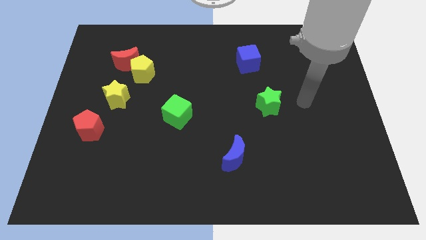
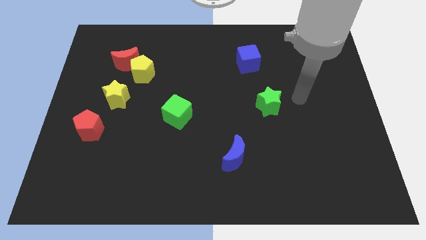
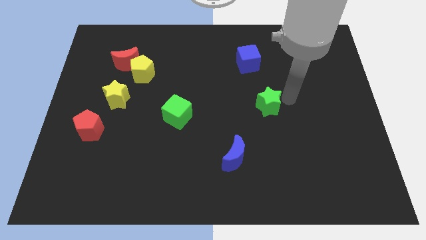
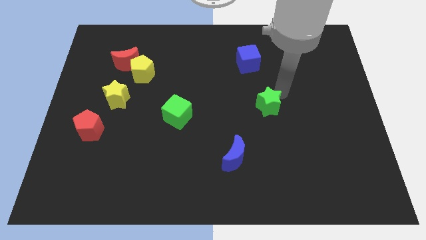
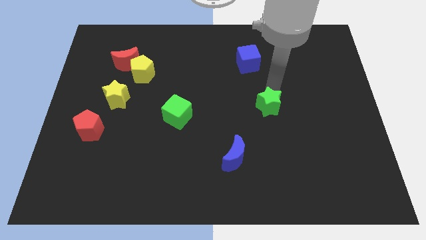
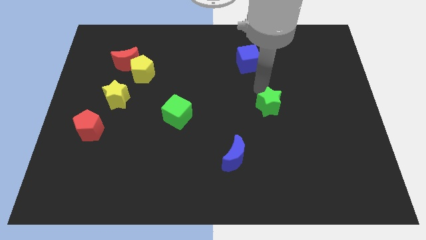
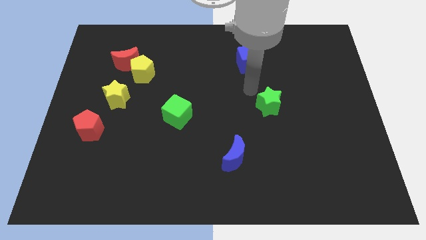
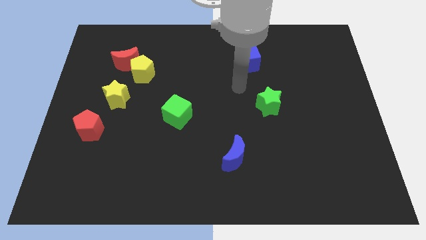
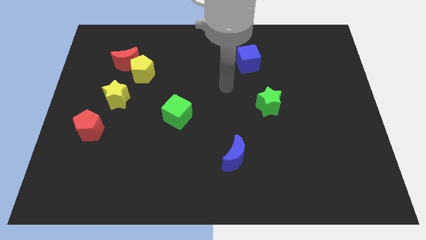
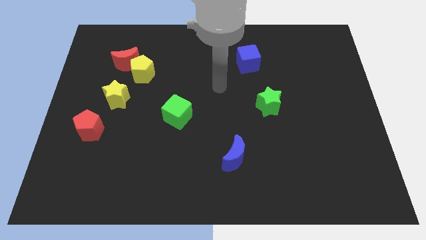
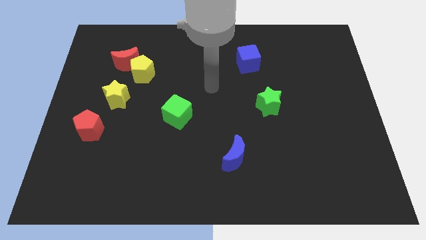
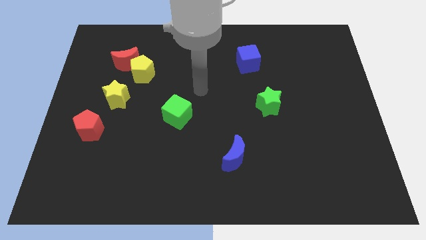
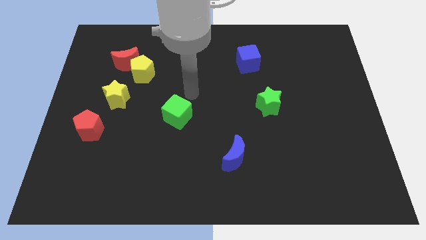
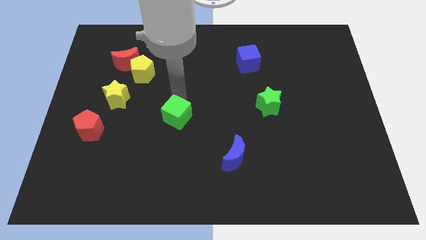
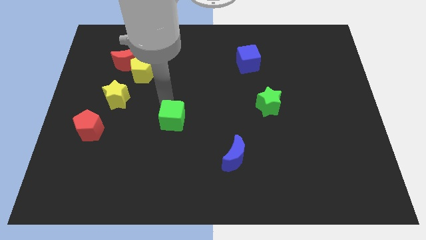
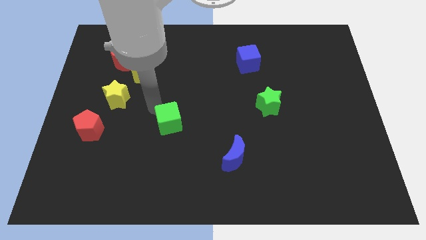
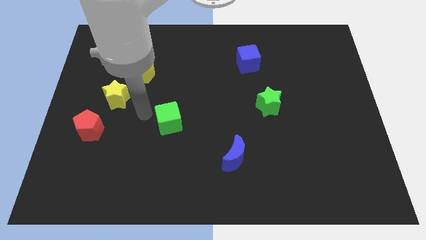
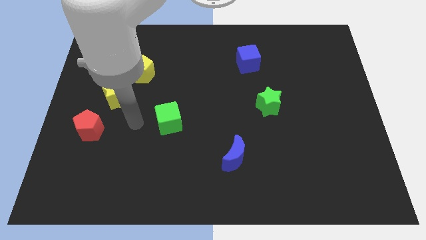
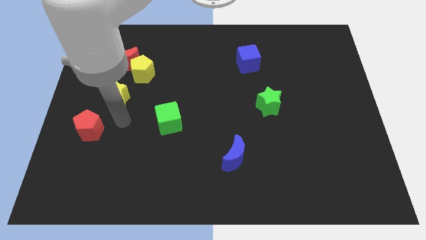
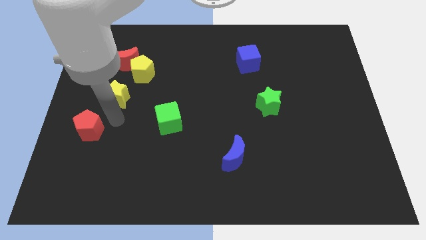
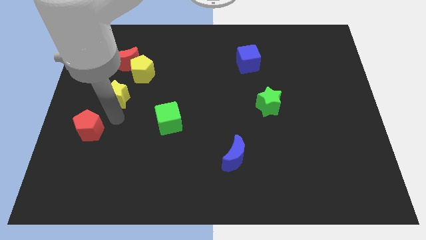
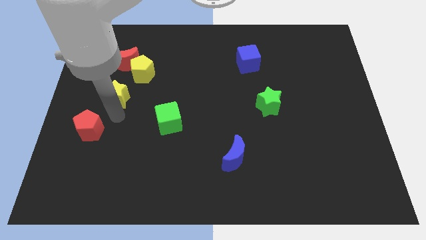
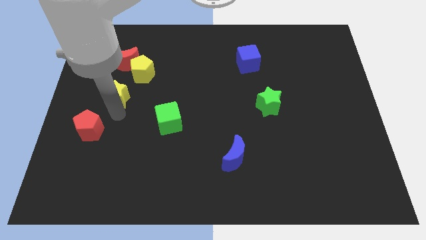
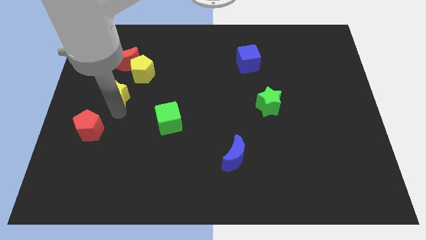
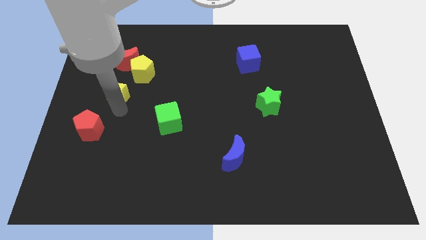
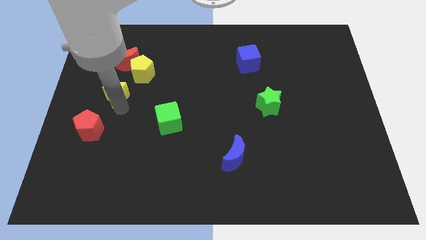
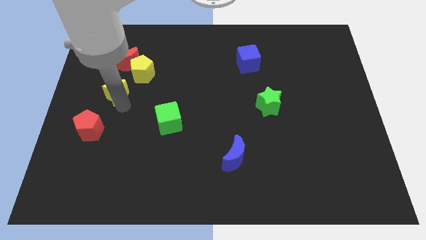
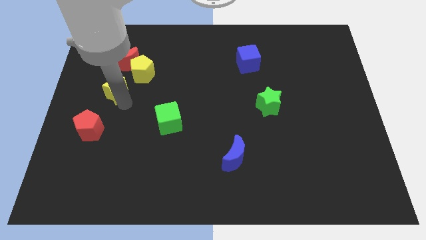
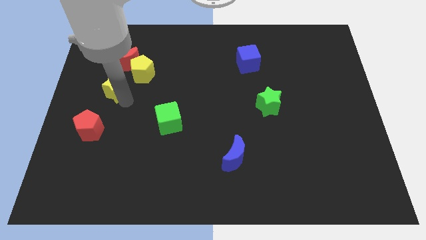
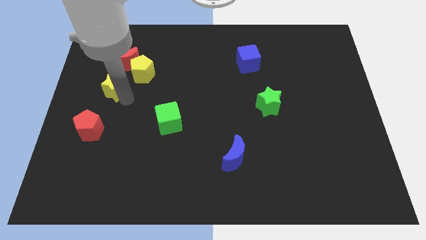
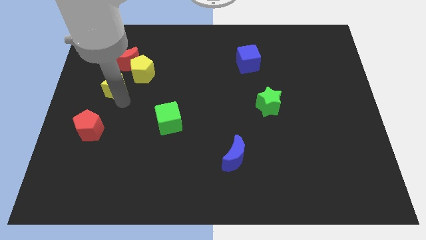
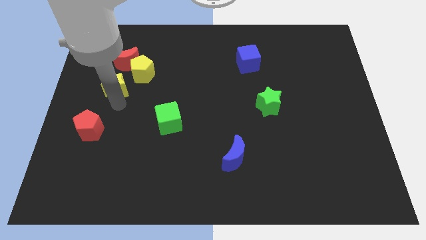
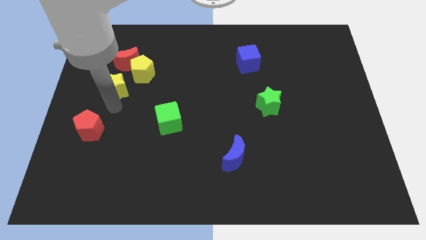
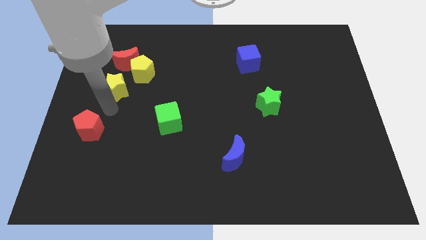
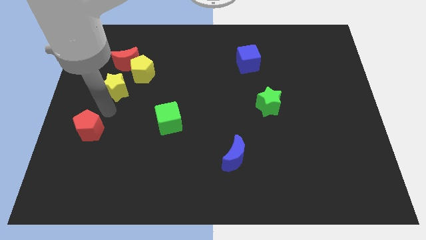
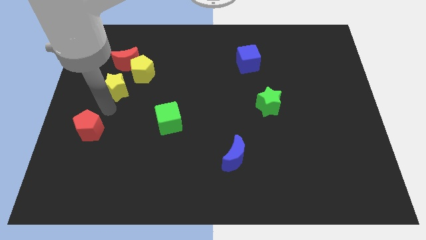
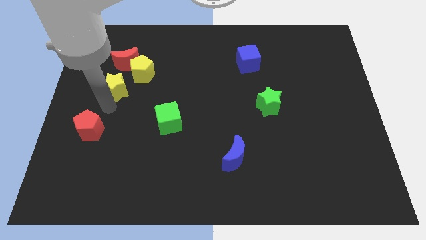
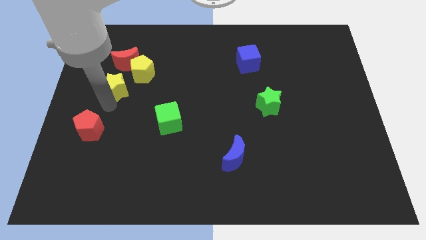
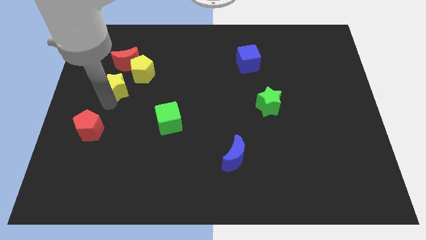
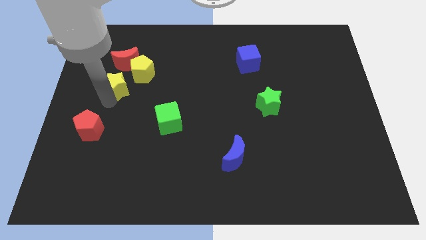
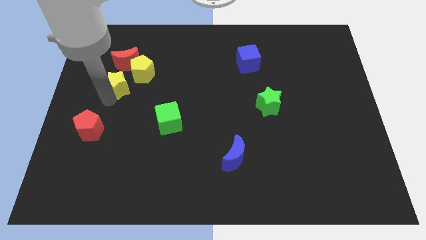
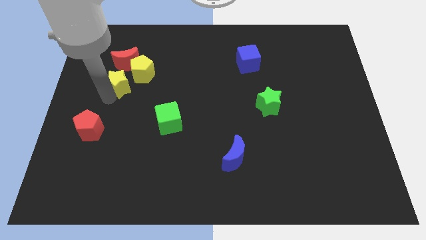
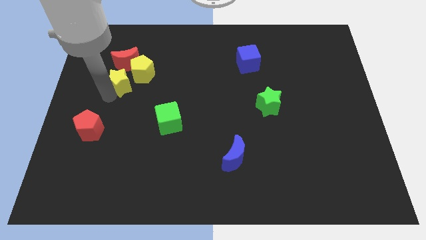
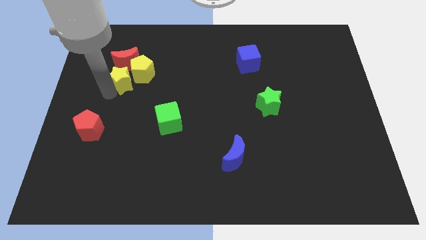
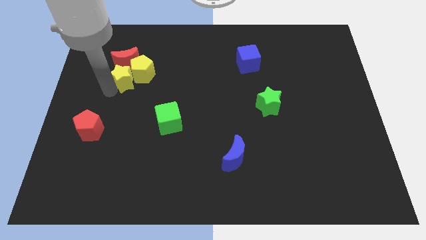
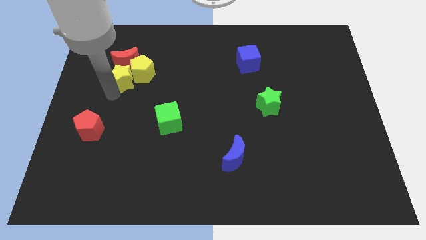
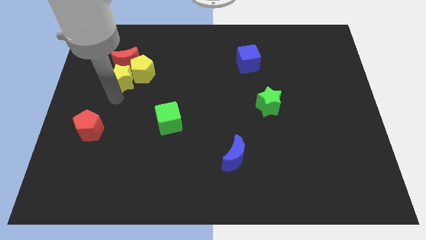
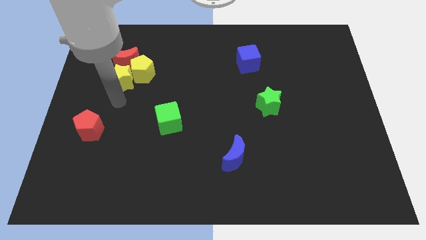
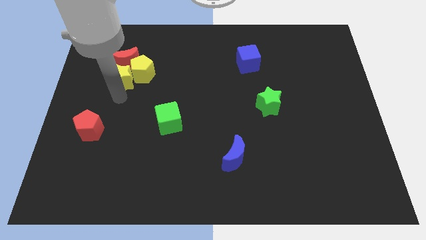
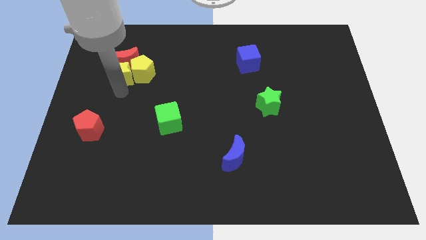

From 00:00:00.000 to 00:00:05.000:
put the yellow star next to the red moon

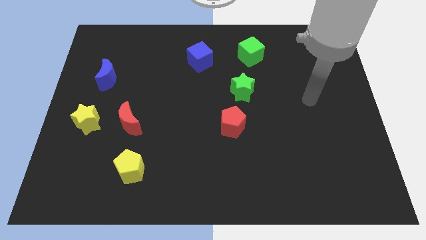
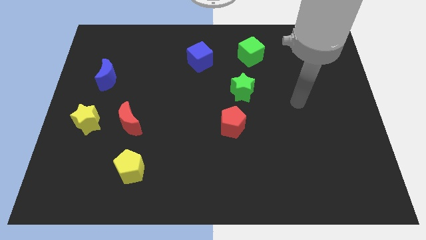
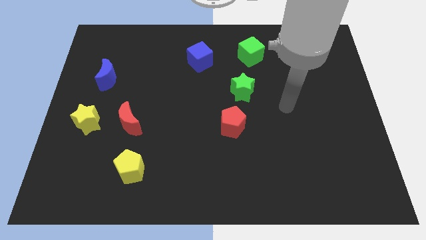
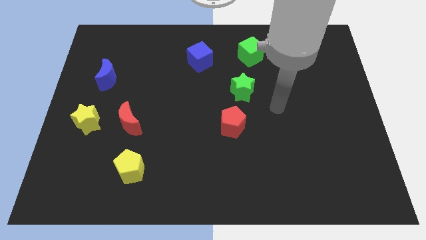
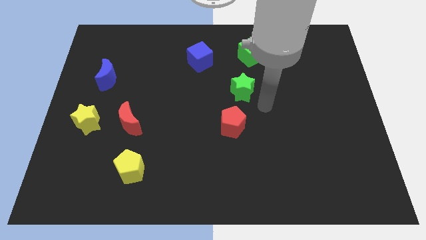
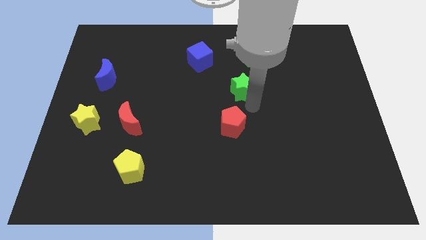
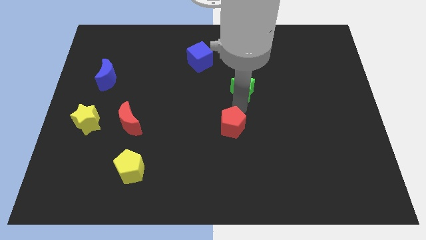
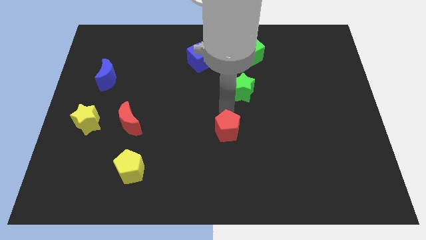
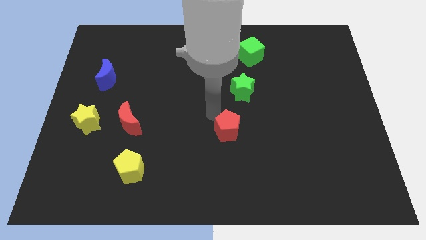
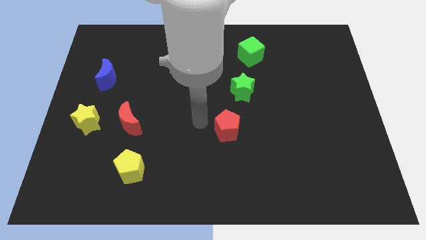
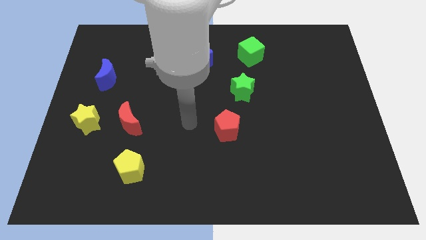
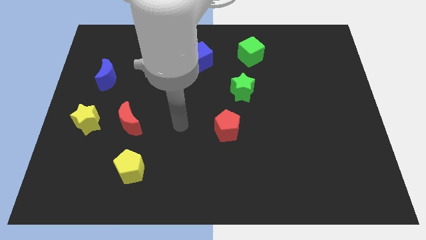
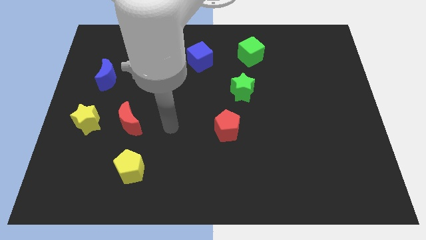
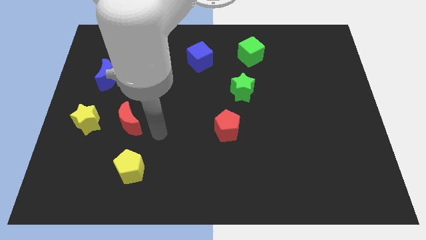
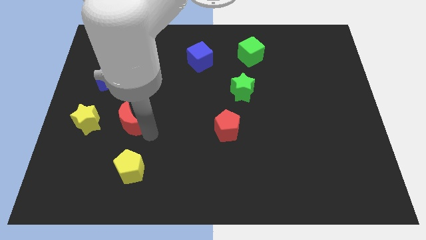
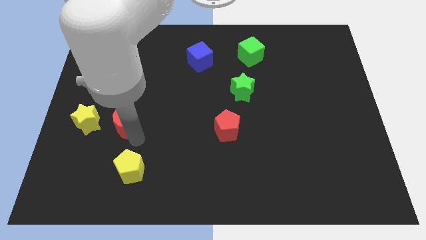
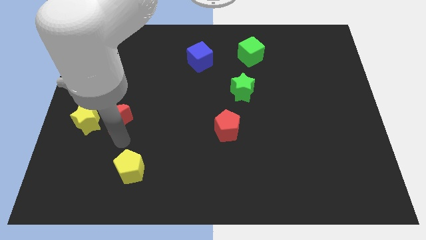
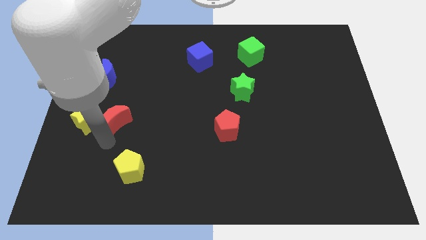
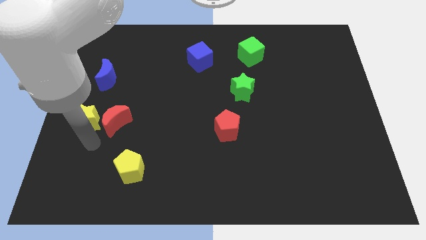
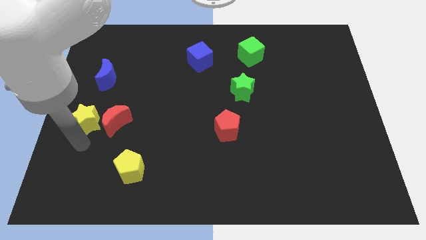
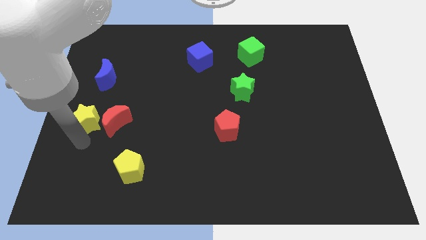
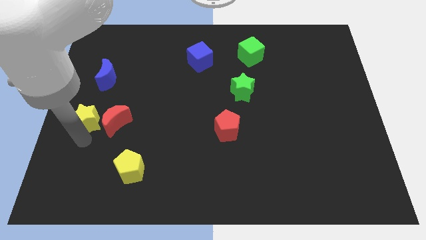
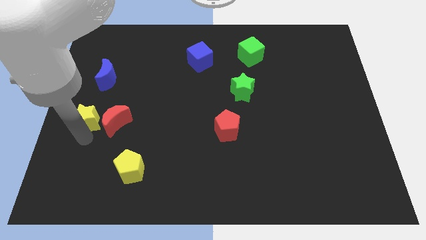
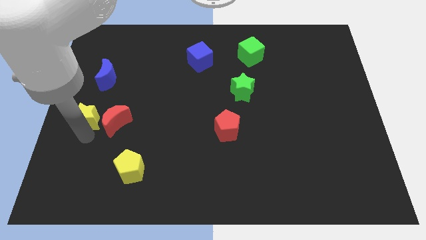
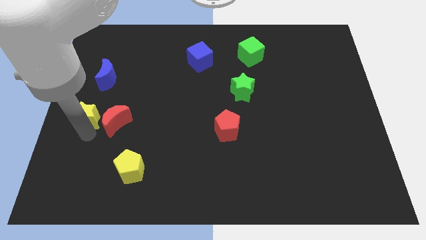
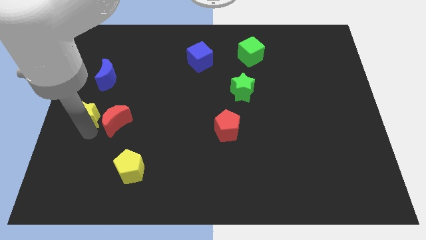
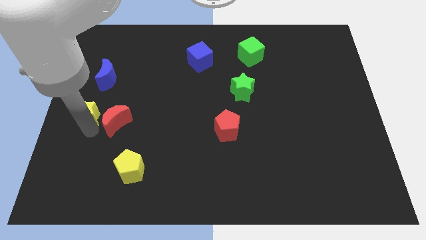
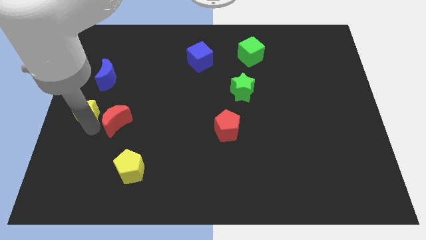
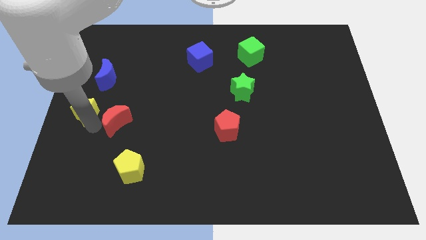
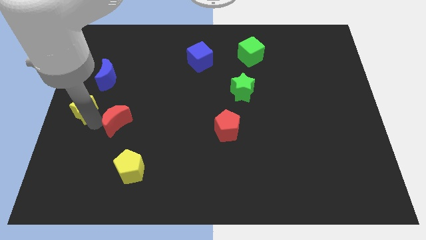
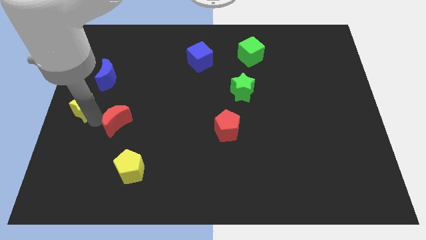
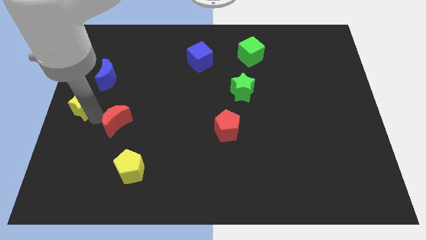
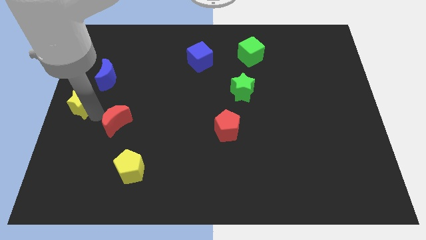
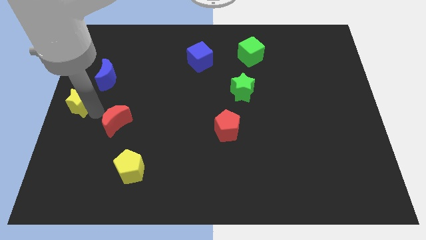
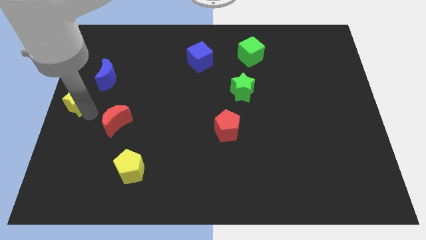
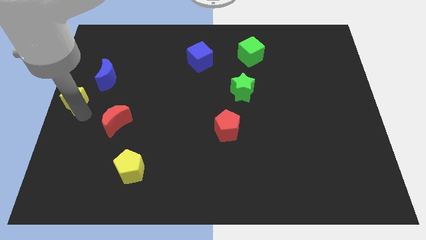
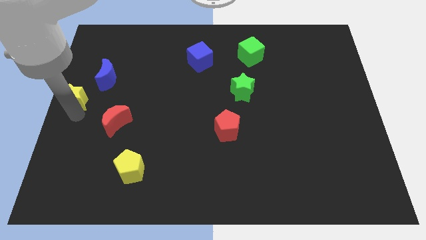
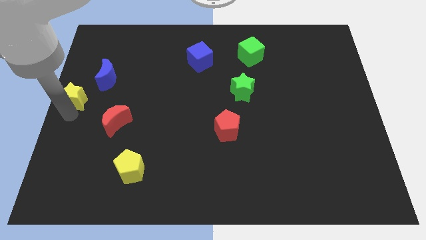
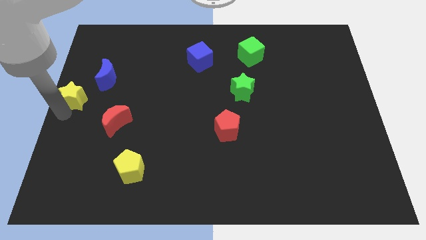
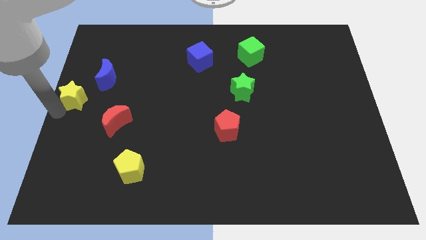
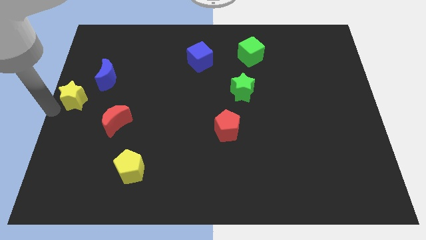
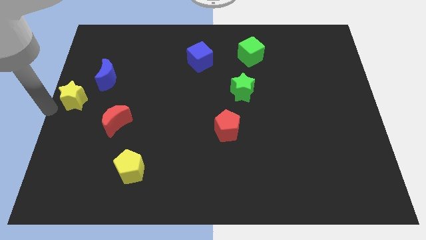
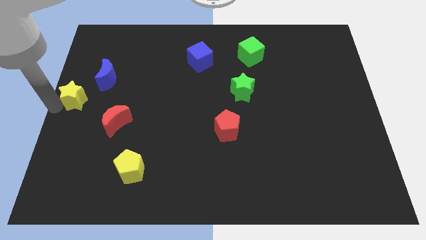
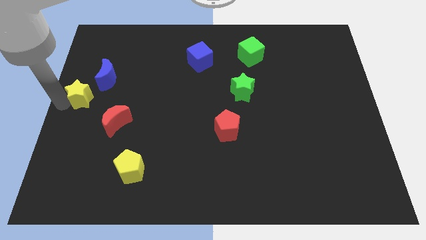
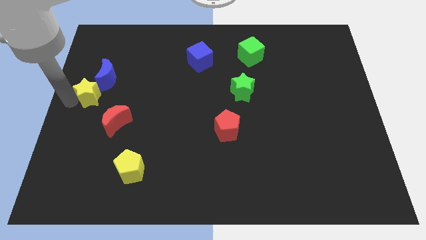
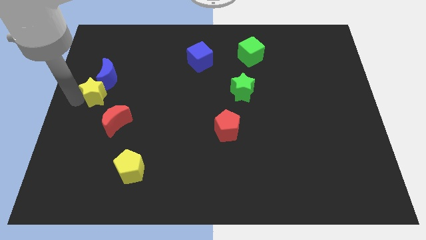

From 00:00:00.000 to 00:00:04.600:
put the yellow star close to the blue moon
